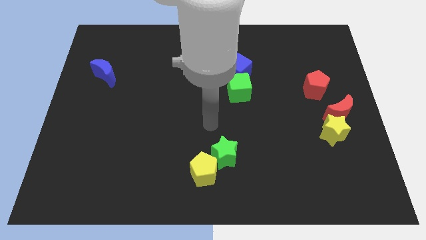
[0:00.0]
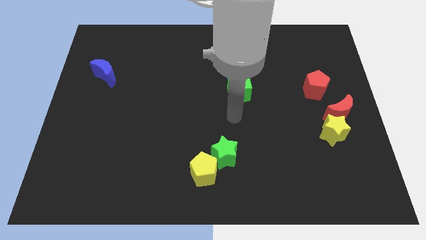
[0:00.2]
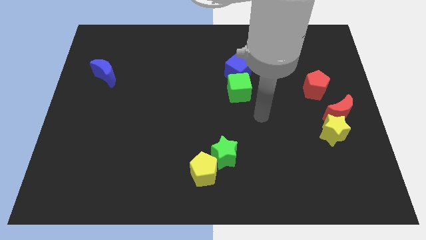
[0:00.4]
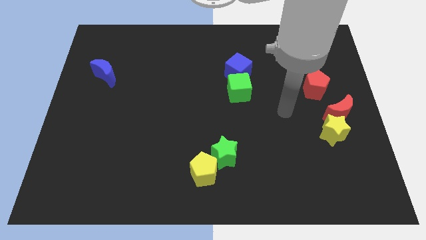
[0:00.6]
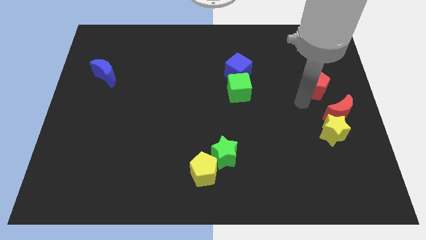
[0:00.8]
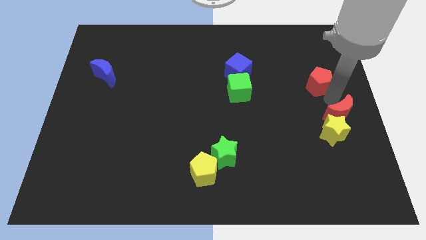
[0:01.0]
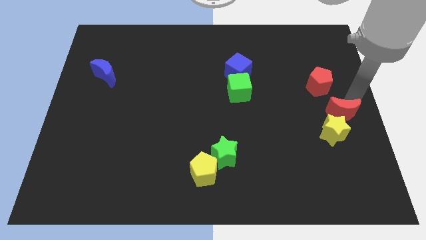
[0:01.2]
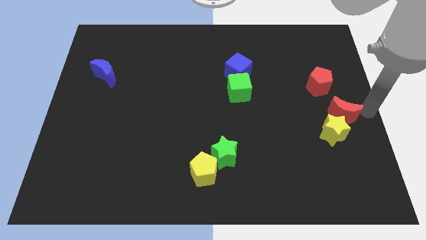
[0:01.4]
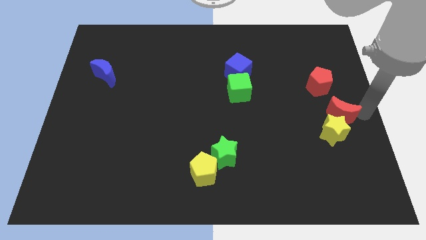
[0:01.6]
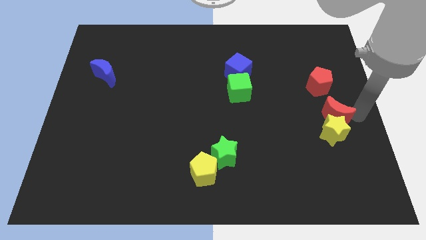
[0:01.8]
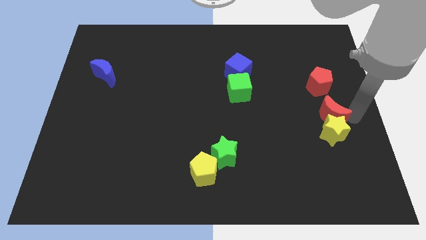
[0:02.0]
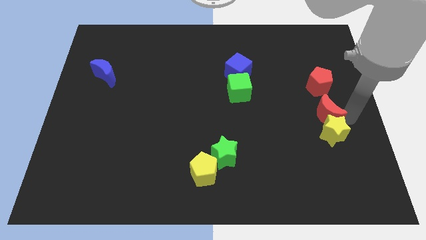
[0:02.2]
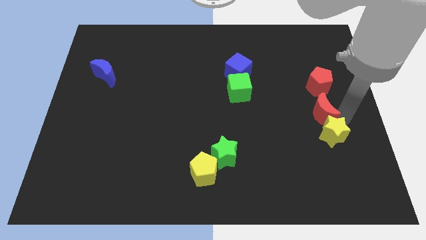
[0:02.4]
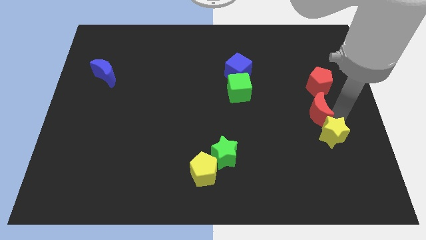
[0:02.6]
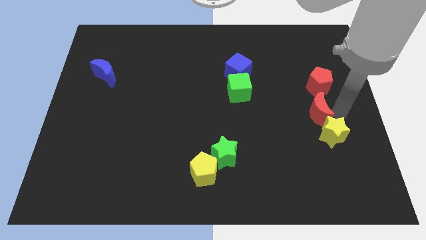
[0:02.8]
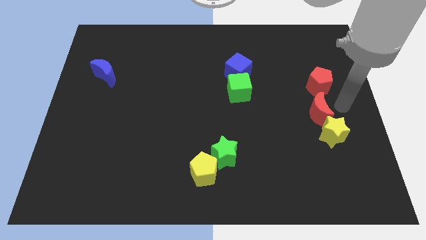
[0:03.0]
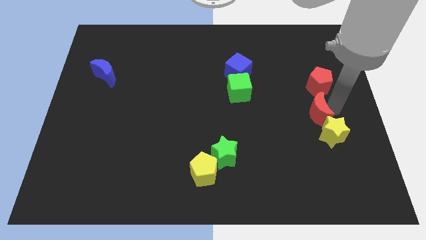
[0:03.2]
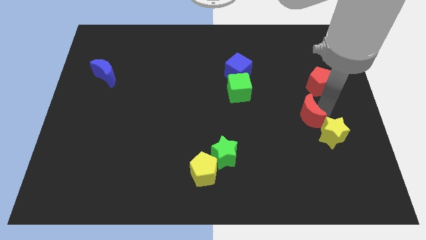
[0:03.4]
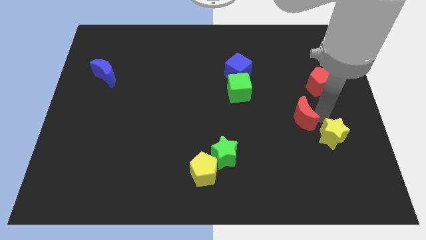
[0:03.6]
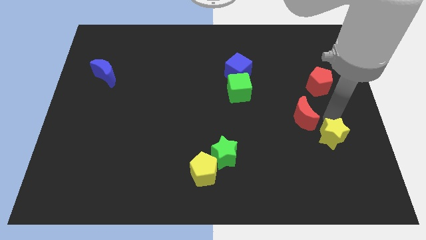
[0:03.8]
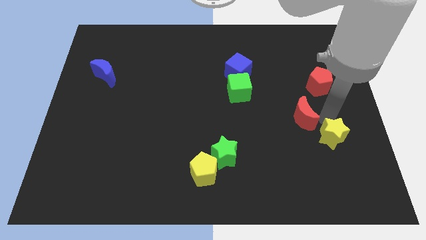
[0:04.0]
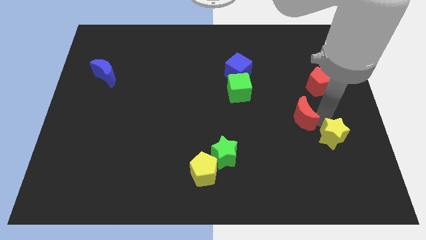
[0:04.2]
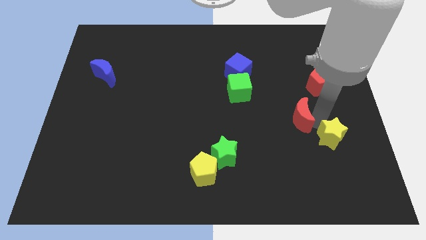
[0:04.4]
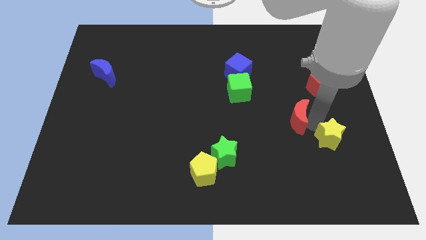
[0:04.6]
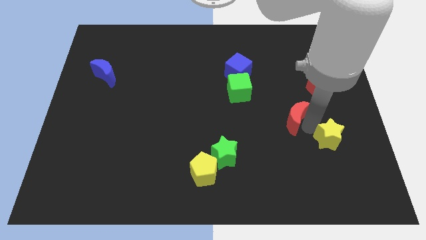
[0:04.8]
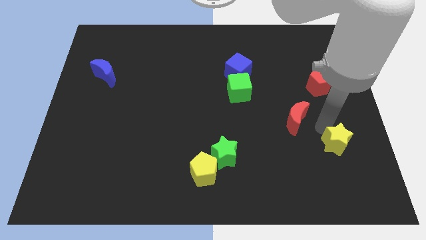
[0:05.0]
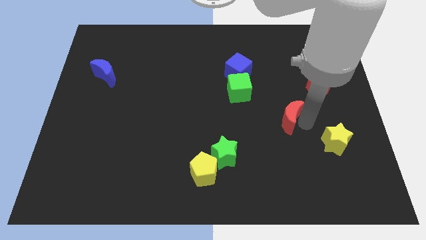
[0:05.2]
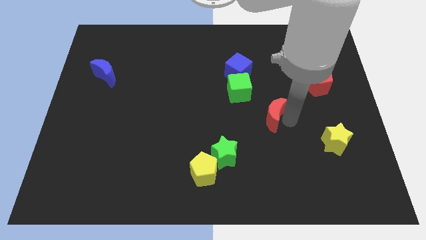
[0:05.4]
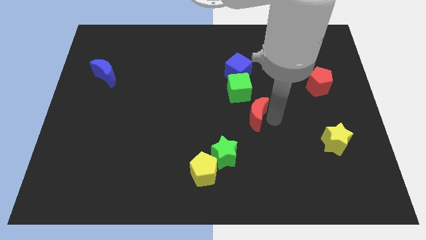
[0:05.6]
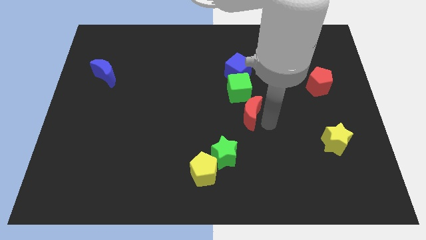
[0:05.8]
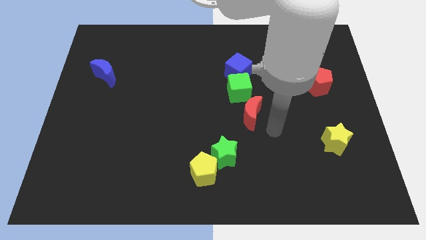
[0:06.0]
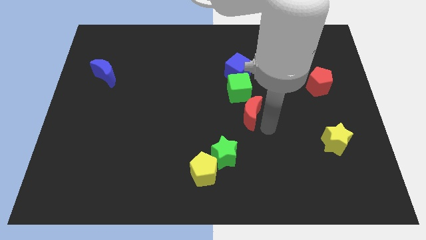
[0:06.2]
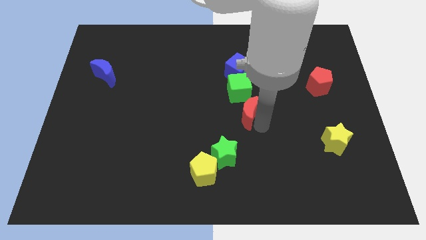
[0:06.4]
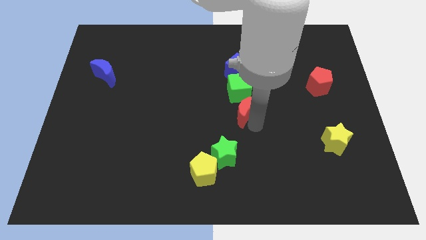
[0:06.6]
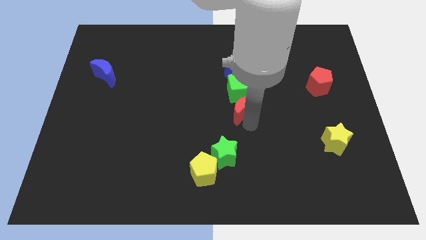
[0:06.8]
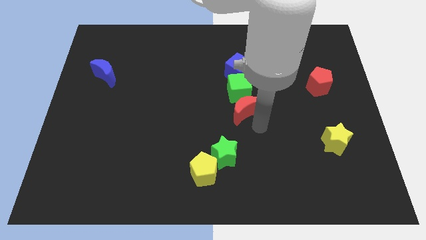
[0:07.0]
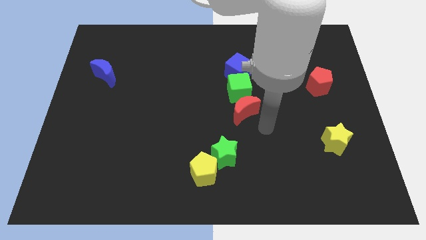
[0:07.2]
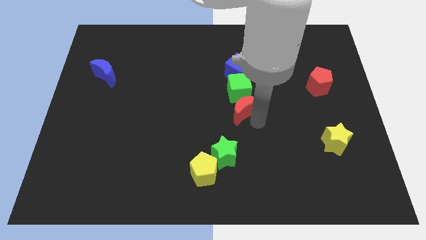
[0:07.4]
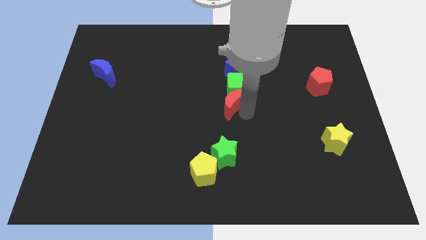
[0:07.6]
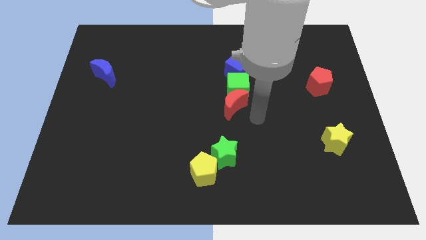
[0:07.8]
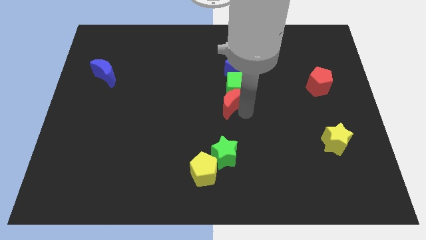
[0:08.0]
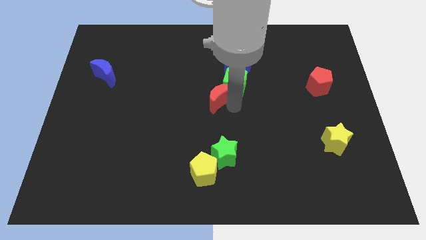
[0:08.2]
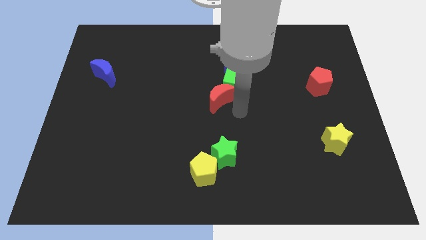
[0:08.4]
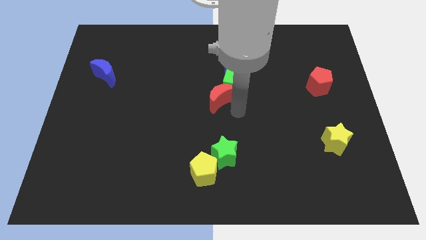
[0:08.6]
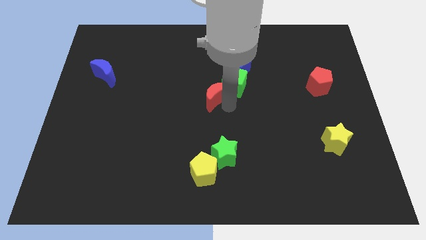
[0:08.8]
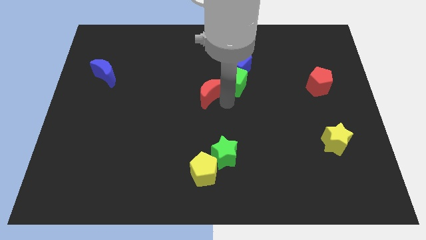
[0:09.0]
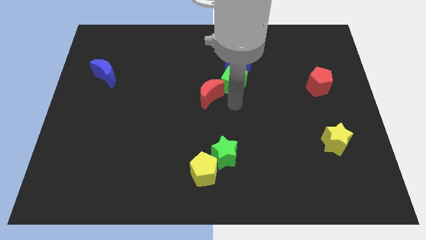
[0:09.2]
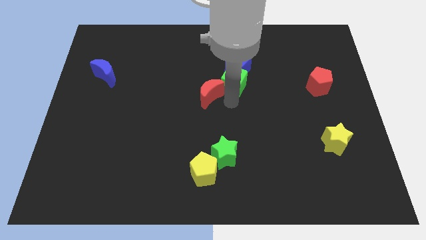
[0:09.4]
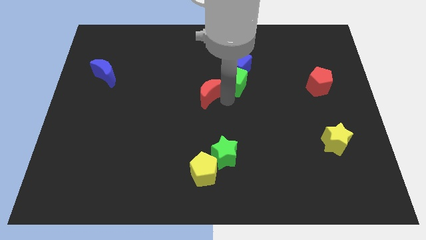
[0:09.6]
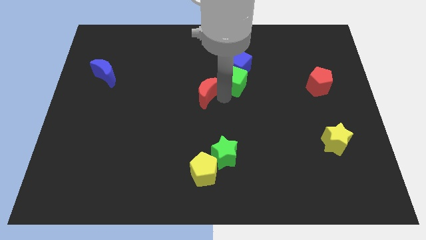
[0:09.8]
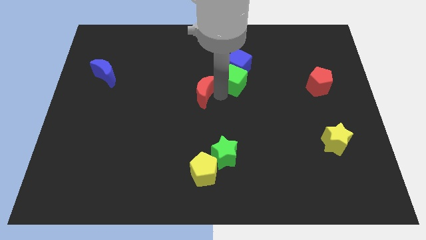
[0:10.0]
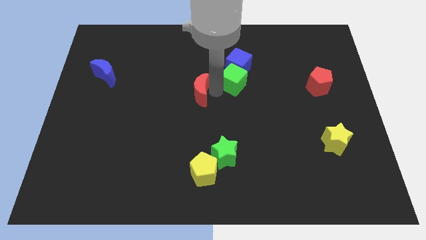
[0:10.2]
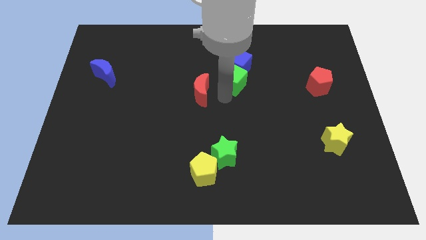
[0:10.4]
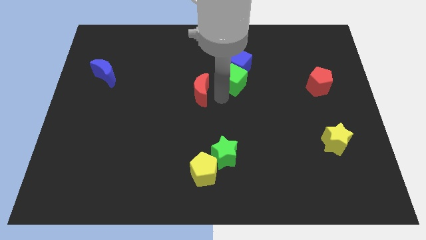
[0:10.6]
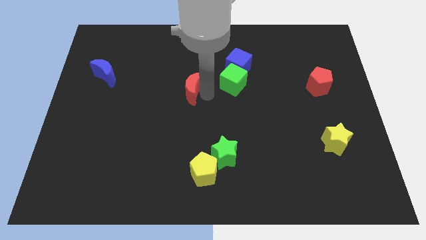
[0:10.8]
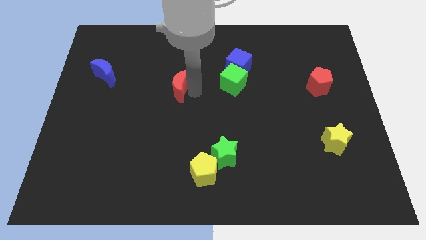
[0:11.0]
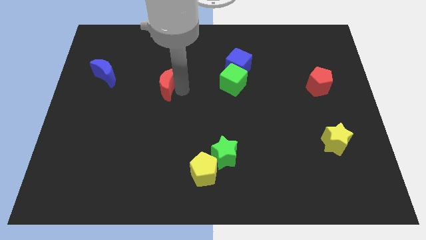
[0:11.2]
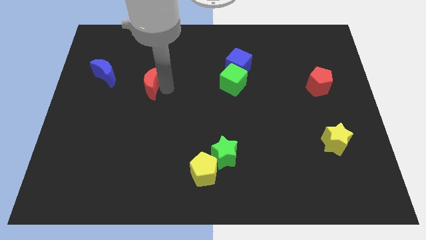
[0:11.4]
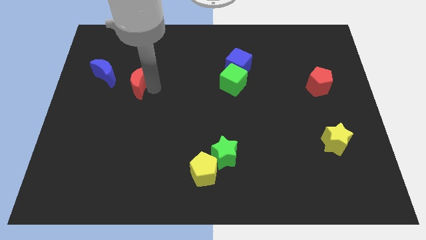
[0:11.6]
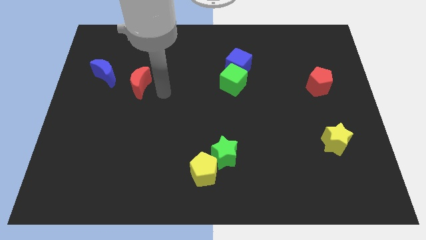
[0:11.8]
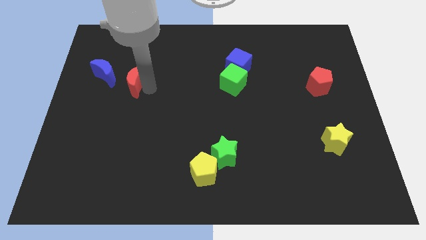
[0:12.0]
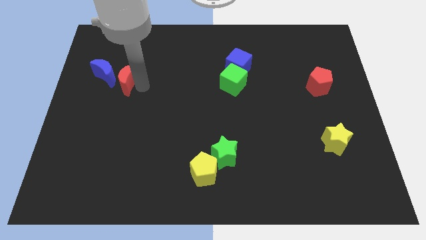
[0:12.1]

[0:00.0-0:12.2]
put the red moon close to the blue moon

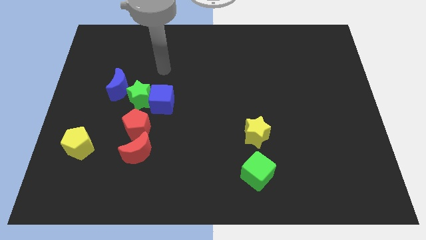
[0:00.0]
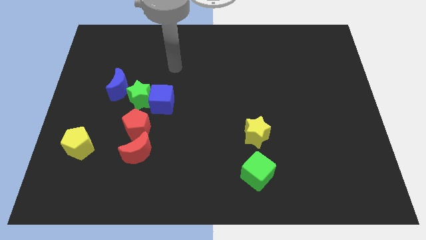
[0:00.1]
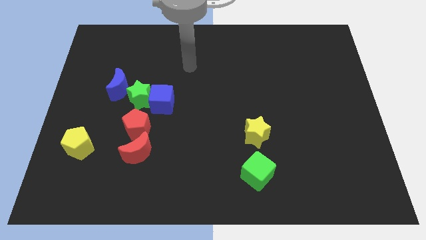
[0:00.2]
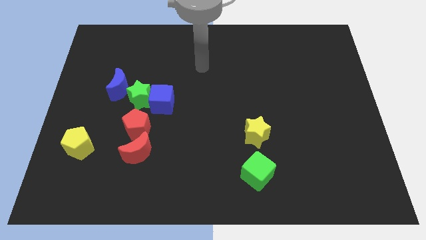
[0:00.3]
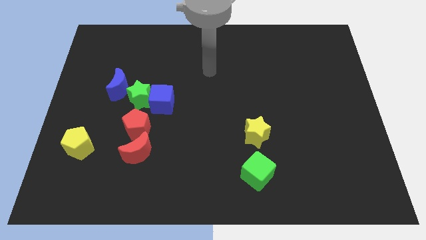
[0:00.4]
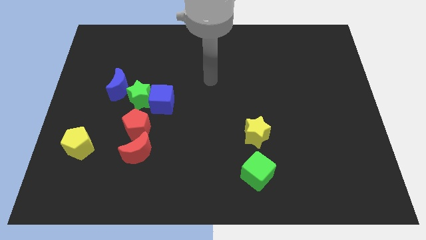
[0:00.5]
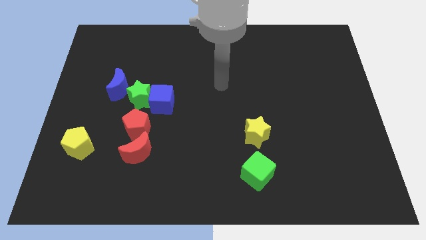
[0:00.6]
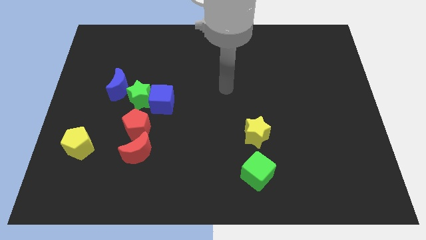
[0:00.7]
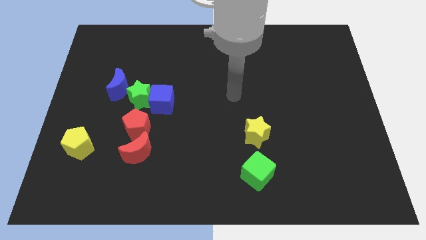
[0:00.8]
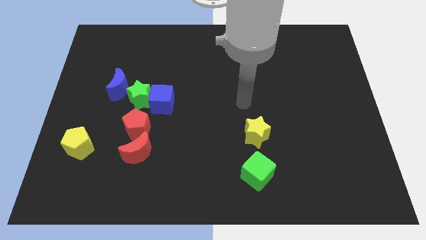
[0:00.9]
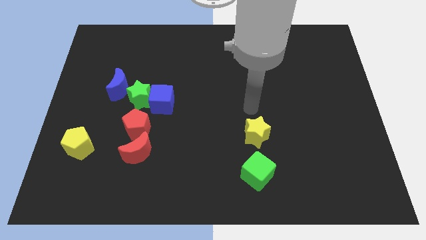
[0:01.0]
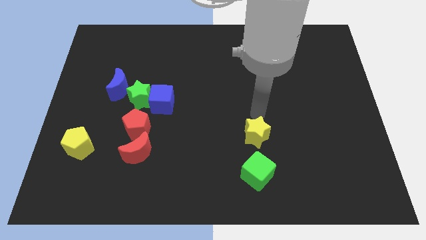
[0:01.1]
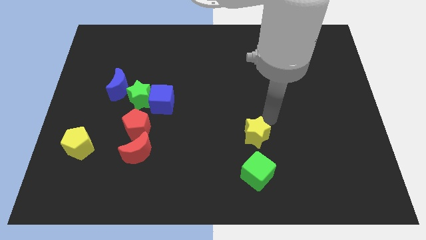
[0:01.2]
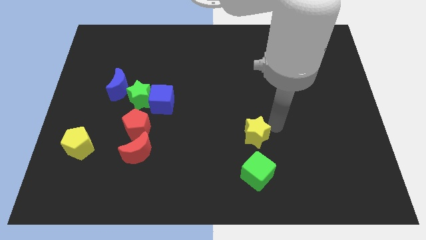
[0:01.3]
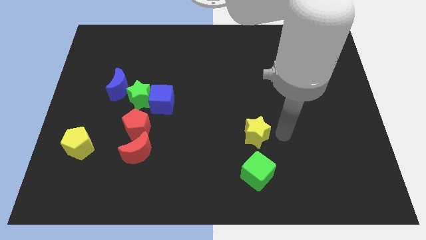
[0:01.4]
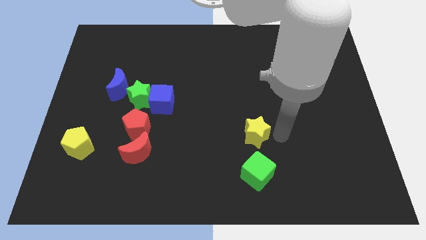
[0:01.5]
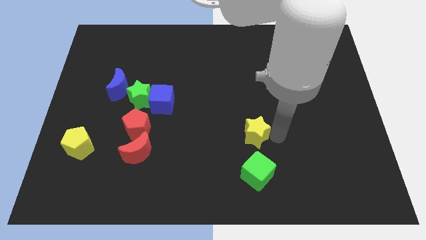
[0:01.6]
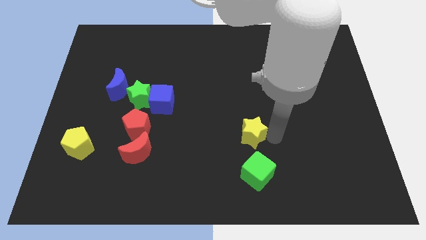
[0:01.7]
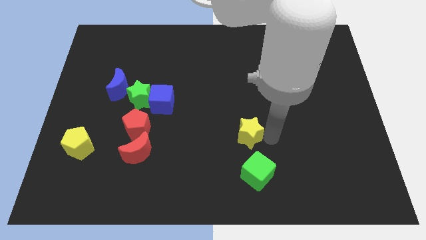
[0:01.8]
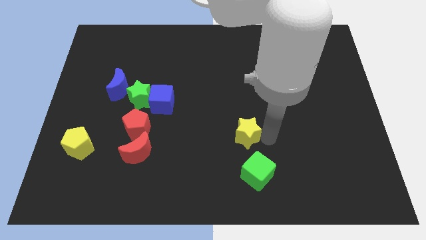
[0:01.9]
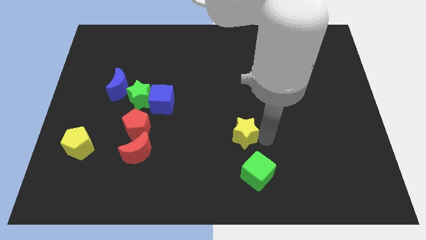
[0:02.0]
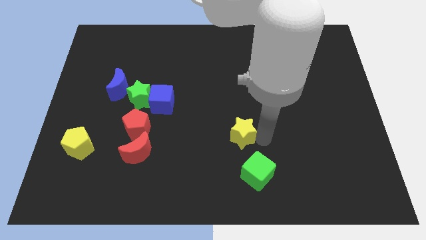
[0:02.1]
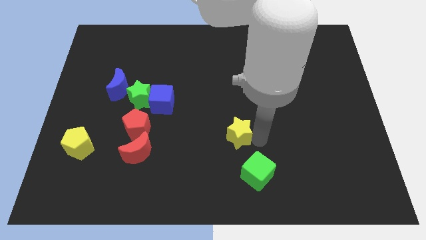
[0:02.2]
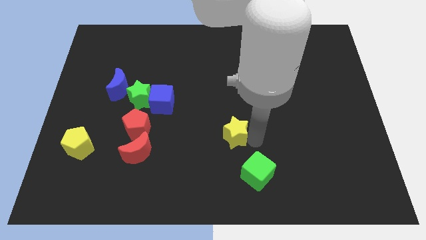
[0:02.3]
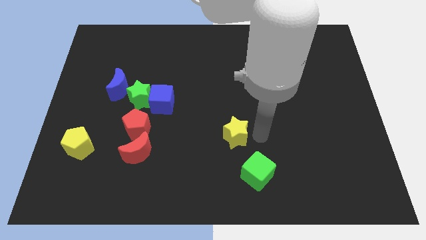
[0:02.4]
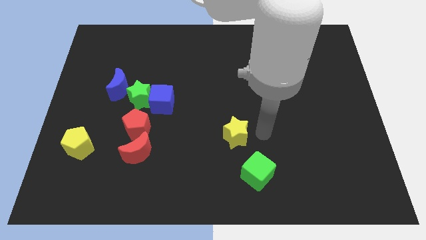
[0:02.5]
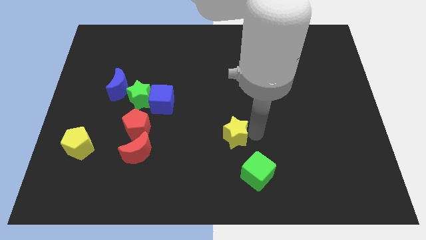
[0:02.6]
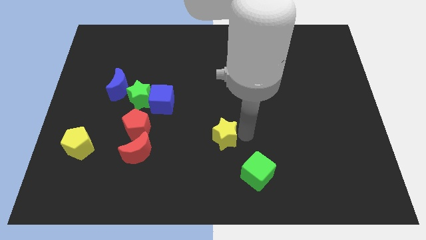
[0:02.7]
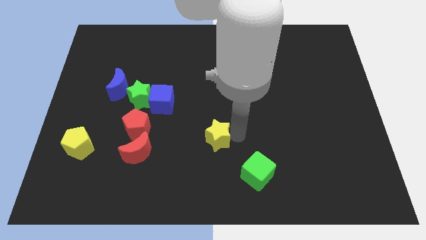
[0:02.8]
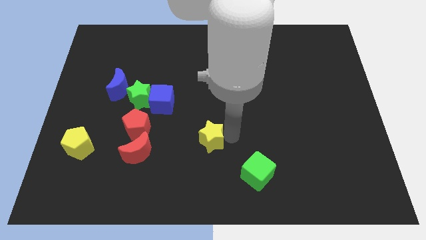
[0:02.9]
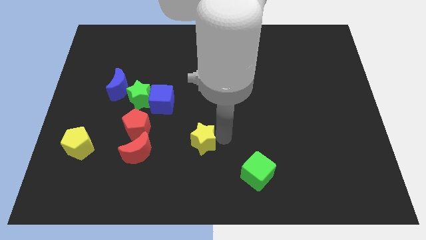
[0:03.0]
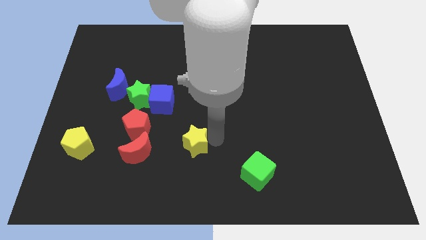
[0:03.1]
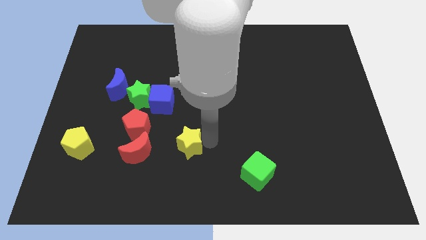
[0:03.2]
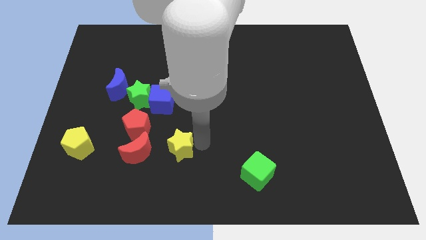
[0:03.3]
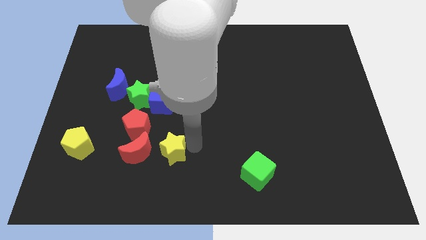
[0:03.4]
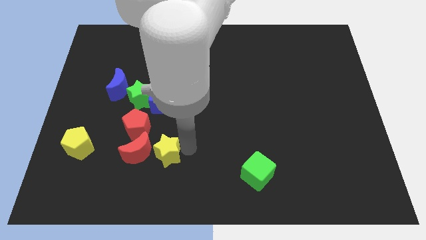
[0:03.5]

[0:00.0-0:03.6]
push the yellow star towards the red moon
